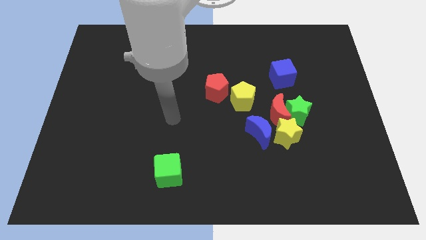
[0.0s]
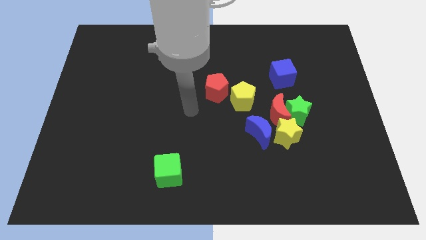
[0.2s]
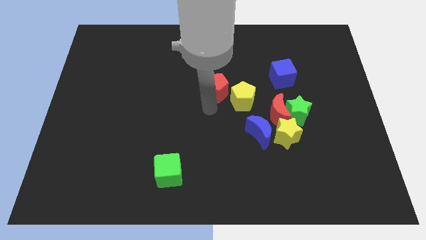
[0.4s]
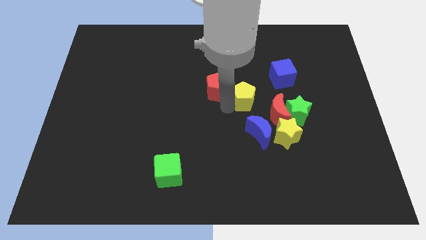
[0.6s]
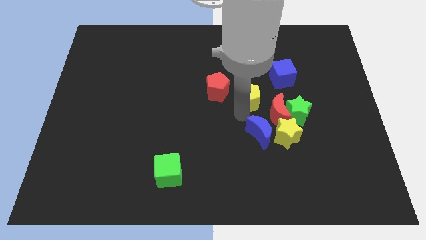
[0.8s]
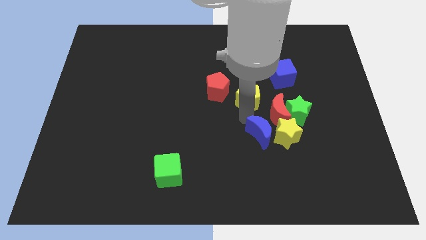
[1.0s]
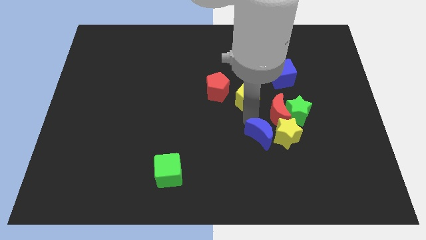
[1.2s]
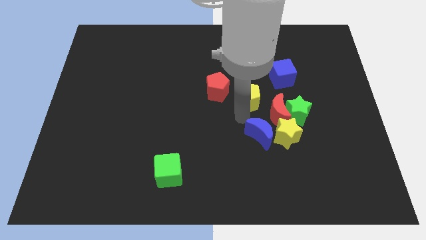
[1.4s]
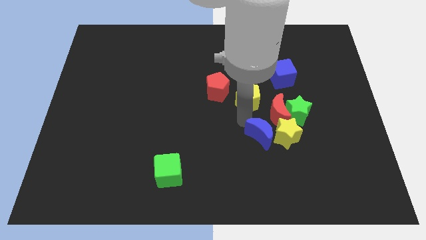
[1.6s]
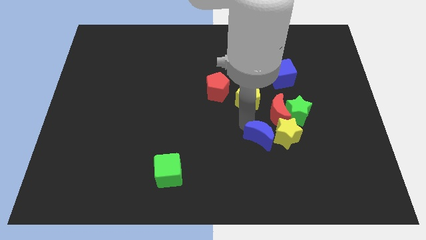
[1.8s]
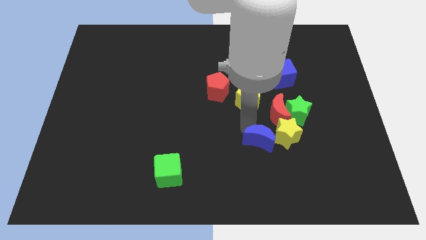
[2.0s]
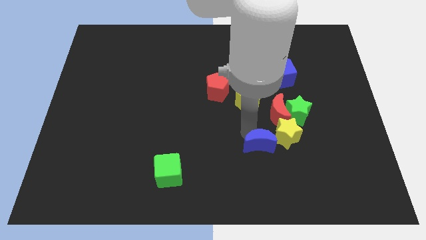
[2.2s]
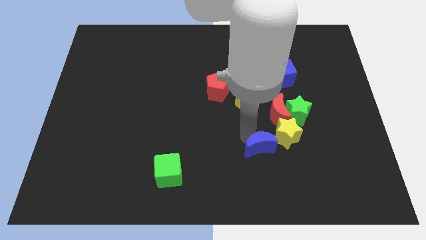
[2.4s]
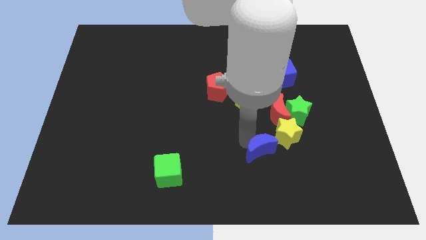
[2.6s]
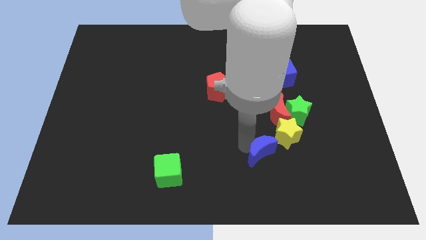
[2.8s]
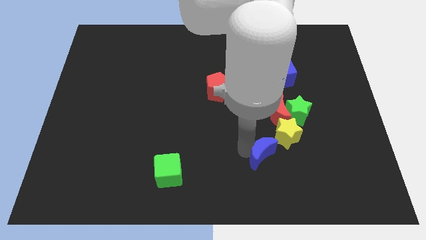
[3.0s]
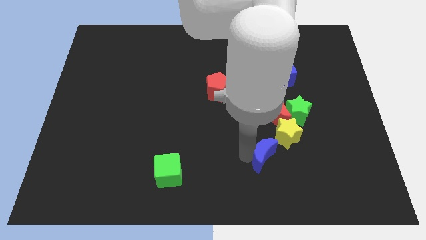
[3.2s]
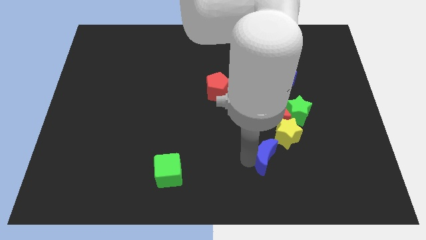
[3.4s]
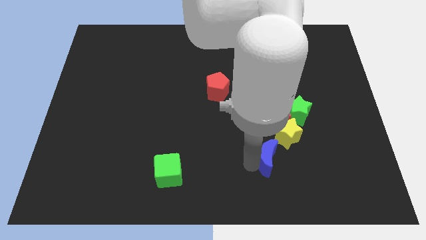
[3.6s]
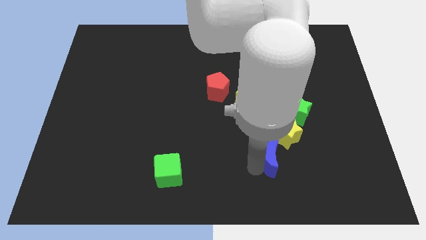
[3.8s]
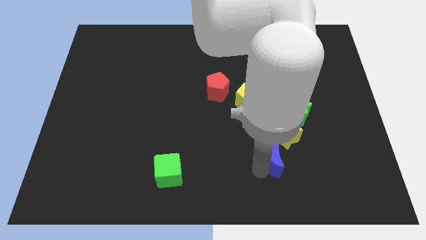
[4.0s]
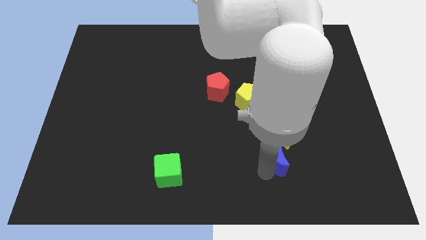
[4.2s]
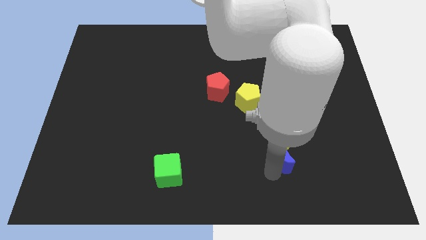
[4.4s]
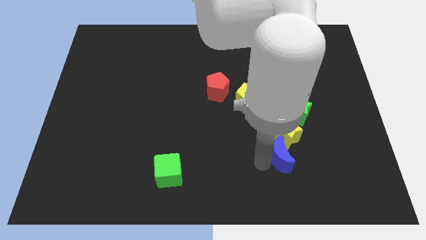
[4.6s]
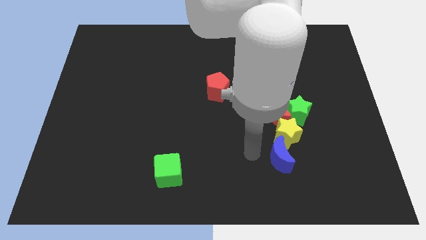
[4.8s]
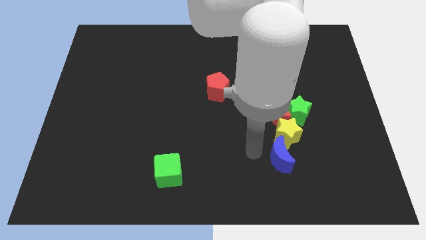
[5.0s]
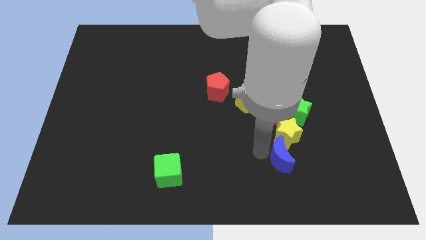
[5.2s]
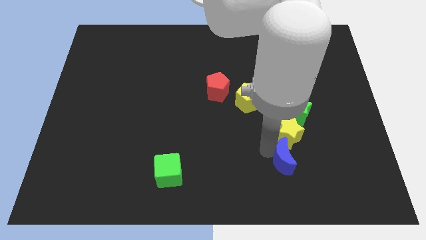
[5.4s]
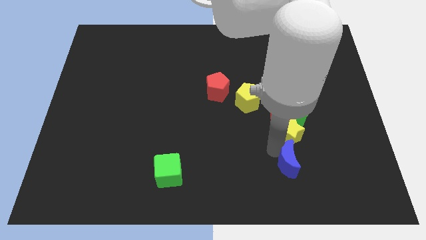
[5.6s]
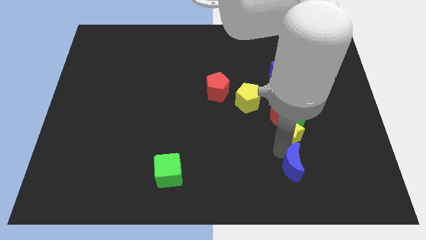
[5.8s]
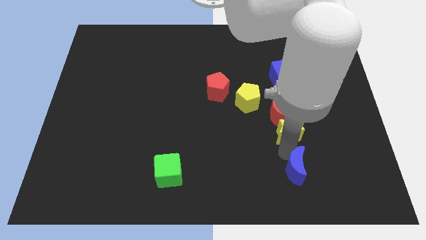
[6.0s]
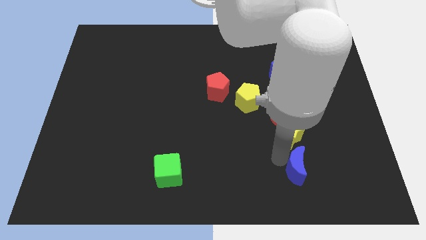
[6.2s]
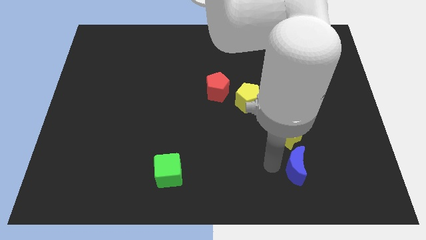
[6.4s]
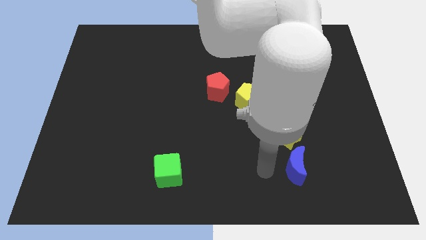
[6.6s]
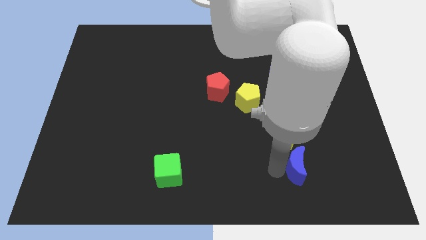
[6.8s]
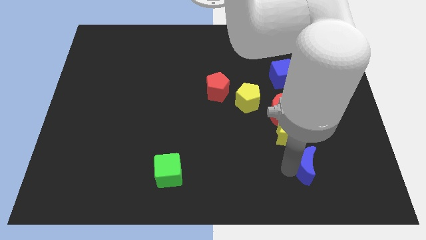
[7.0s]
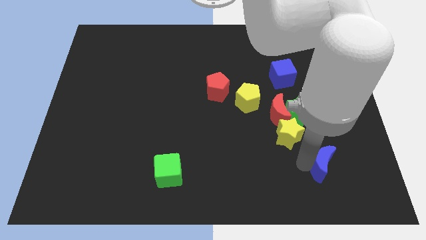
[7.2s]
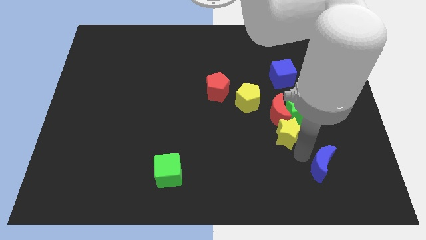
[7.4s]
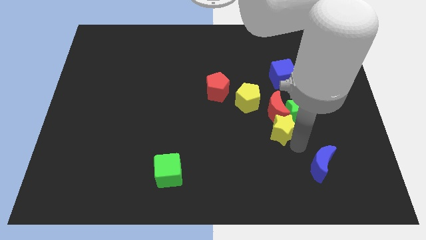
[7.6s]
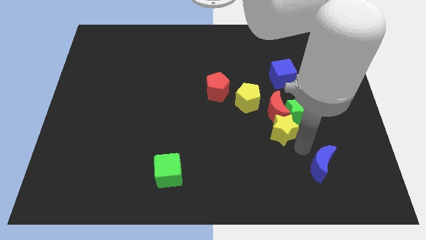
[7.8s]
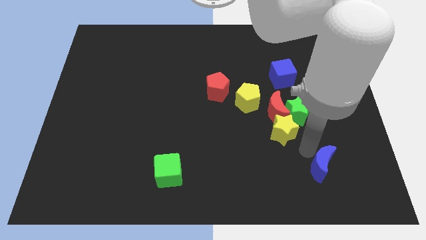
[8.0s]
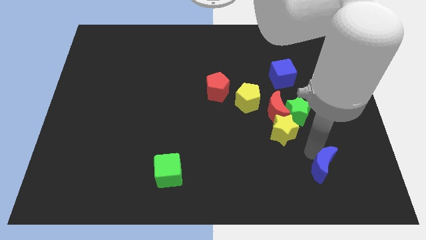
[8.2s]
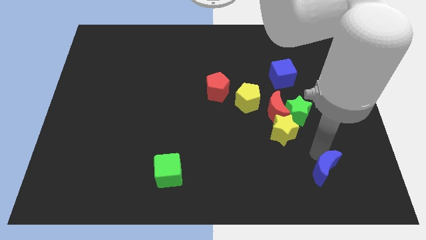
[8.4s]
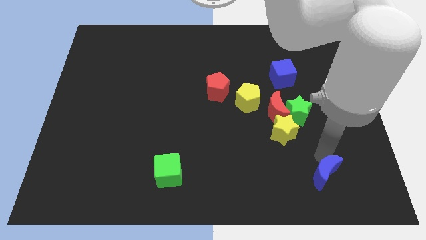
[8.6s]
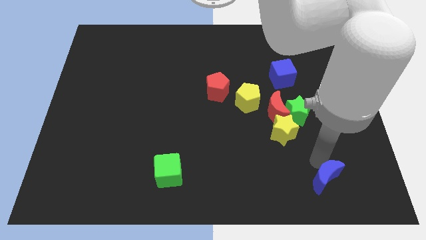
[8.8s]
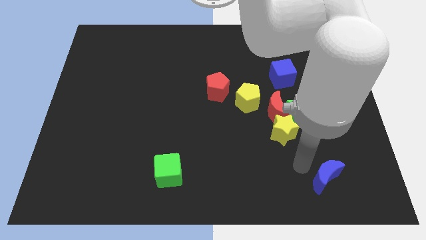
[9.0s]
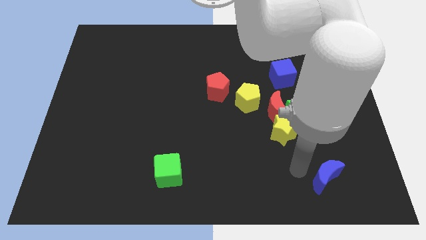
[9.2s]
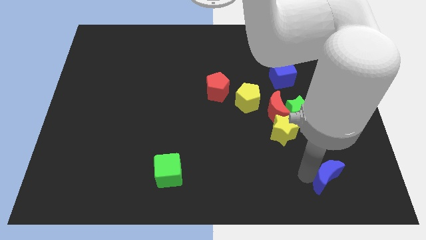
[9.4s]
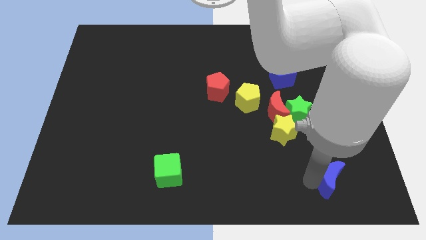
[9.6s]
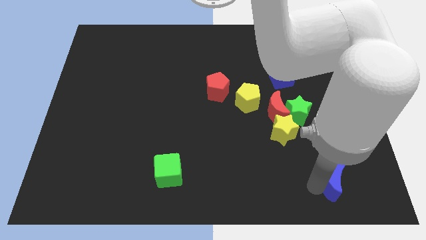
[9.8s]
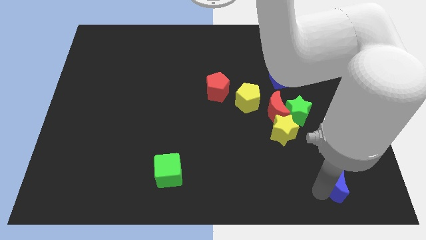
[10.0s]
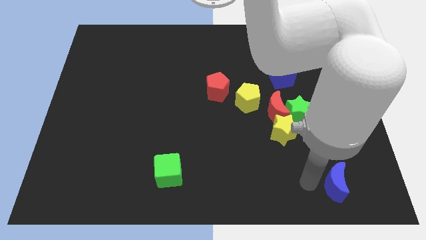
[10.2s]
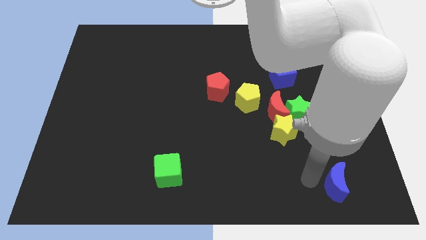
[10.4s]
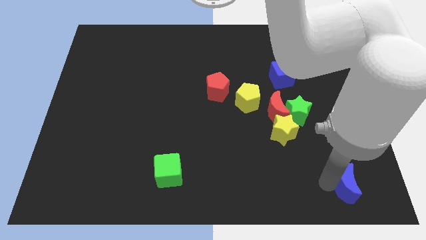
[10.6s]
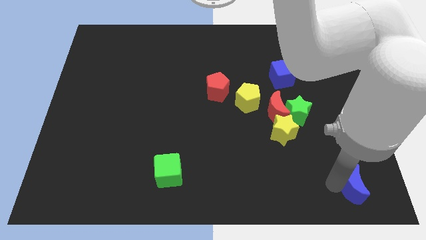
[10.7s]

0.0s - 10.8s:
move the blue moon to the bottom right of the board

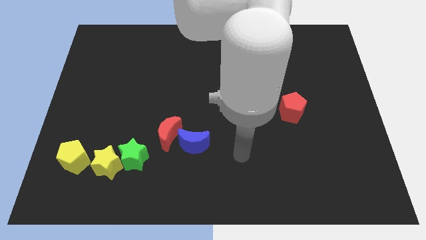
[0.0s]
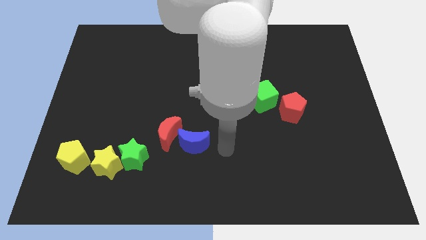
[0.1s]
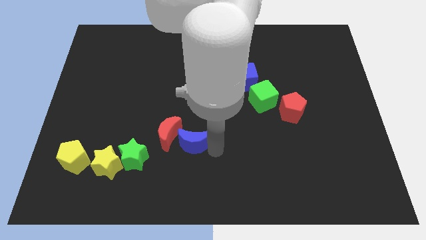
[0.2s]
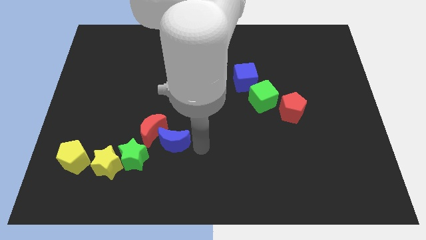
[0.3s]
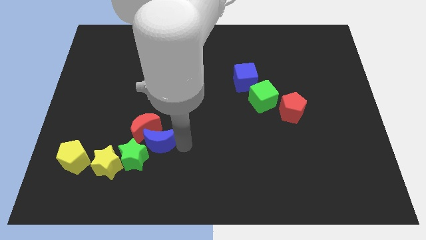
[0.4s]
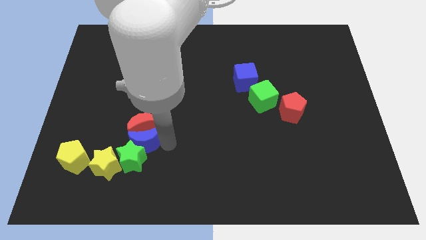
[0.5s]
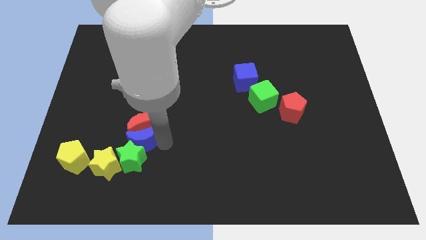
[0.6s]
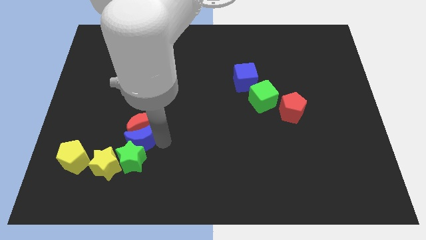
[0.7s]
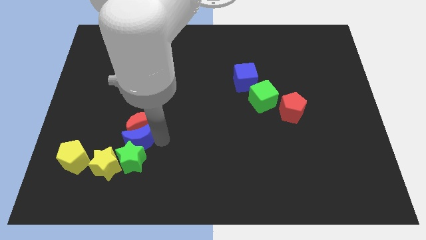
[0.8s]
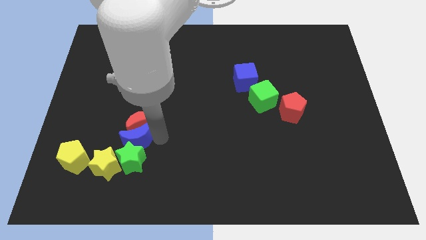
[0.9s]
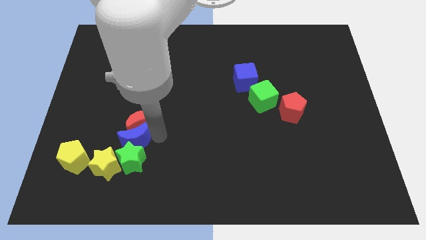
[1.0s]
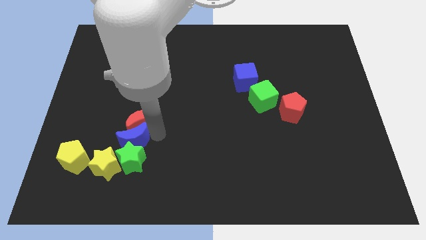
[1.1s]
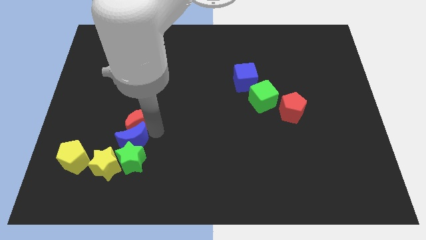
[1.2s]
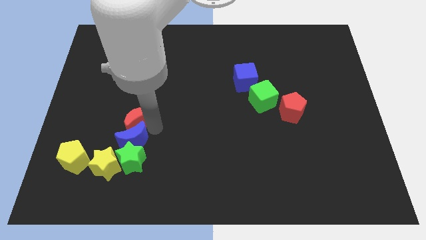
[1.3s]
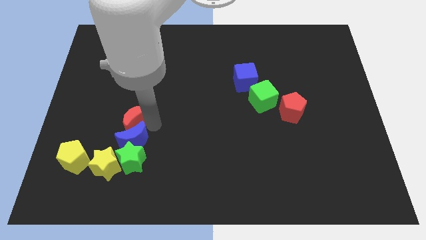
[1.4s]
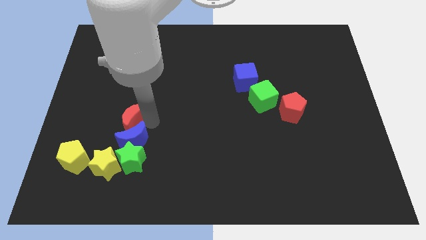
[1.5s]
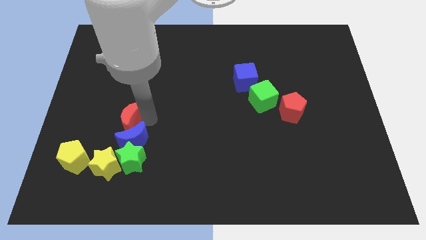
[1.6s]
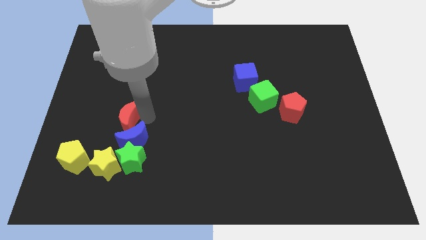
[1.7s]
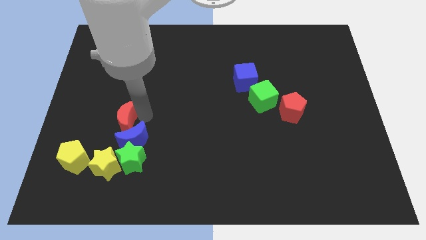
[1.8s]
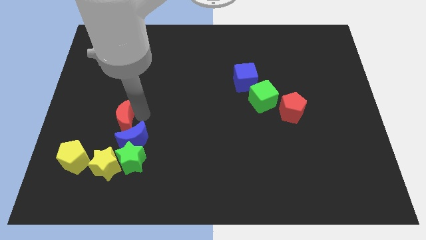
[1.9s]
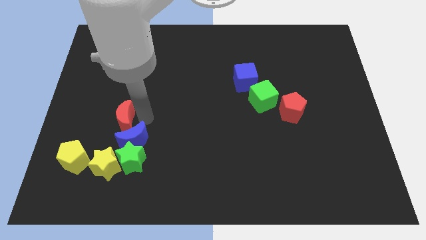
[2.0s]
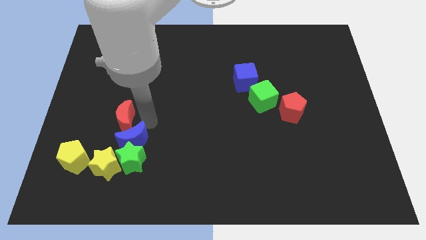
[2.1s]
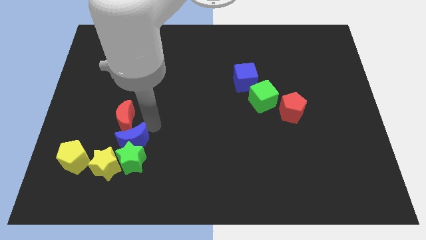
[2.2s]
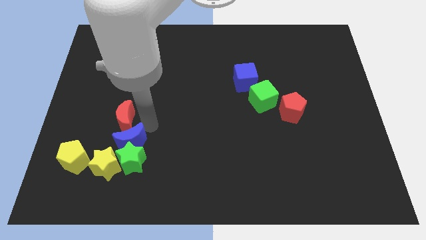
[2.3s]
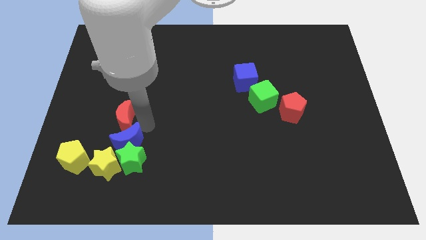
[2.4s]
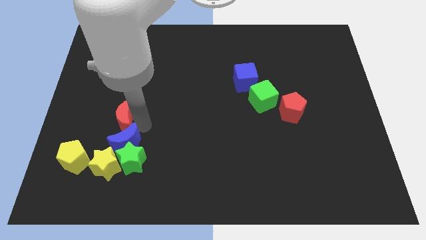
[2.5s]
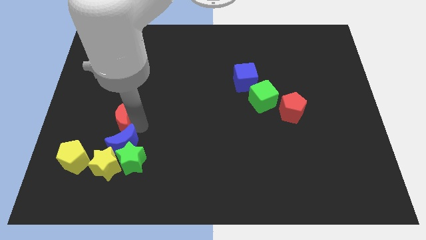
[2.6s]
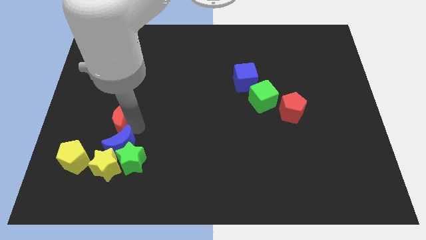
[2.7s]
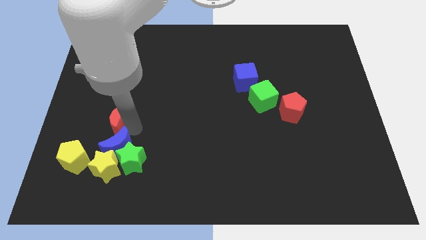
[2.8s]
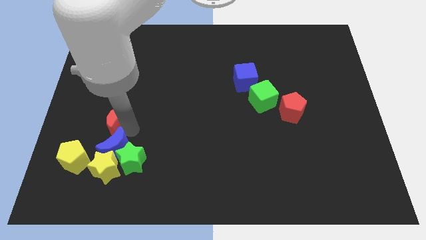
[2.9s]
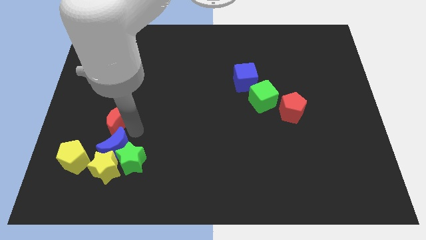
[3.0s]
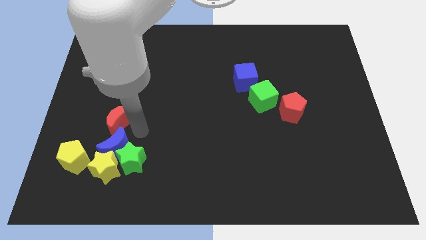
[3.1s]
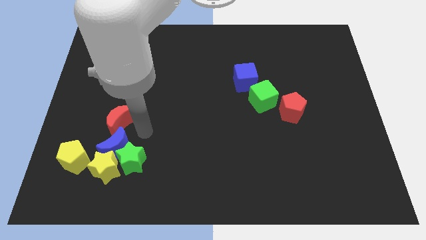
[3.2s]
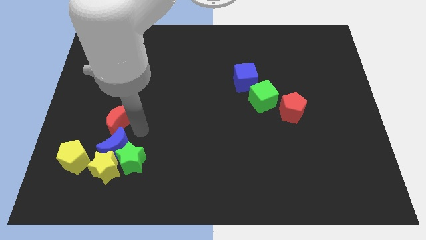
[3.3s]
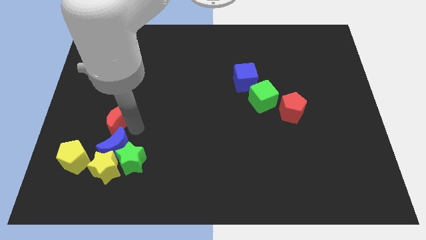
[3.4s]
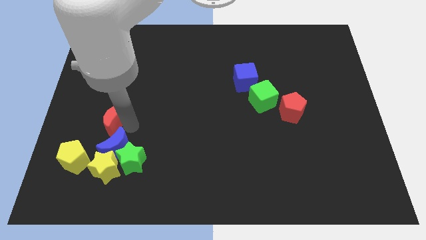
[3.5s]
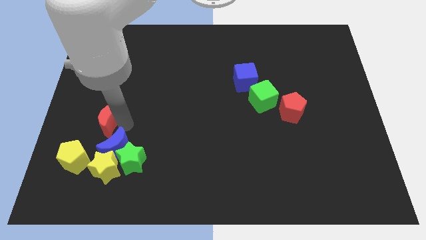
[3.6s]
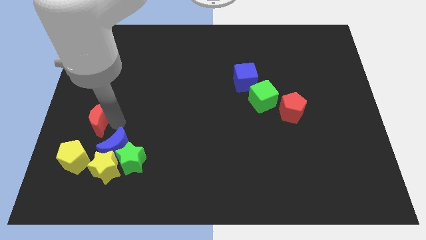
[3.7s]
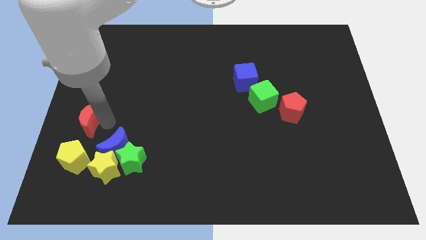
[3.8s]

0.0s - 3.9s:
put the red moon to the left side
